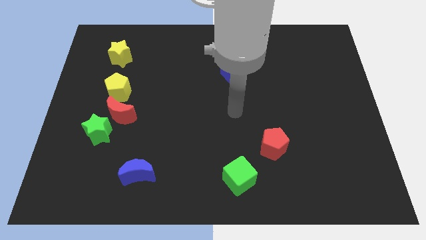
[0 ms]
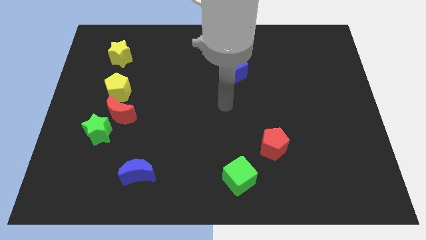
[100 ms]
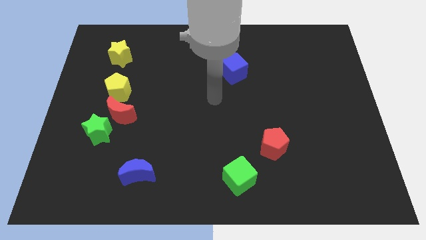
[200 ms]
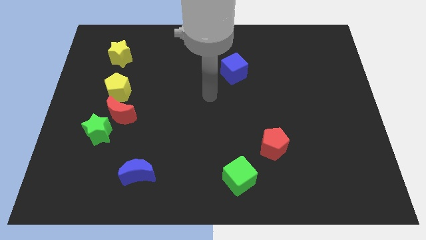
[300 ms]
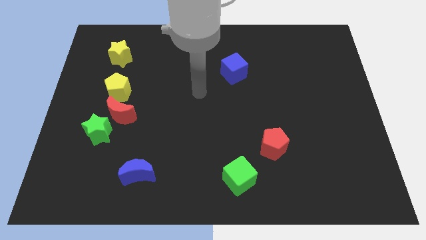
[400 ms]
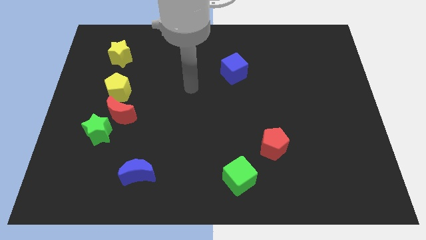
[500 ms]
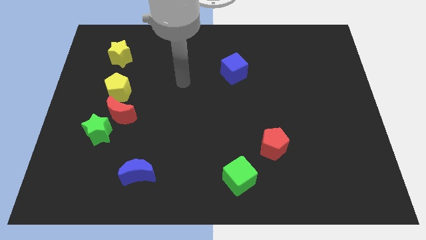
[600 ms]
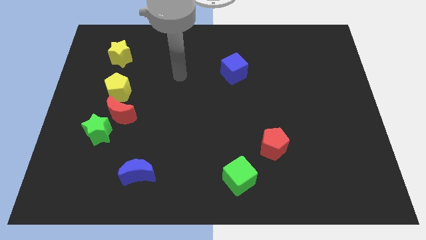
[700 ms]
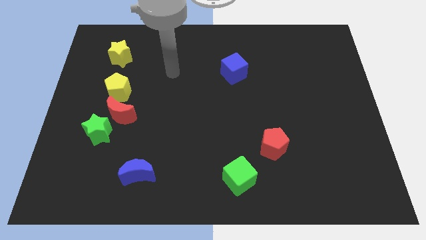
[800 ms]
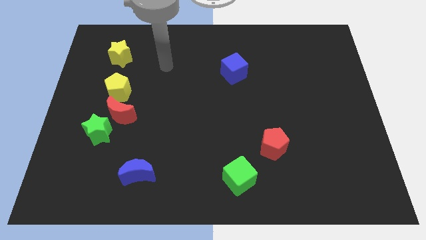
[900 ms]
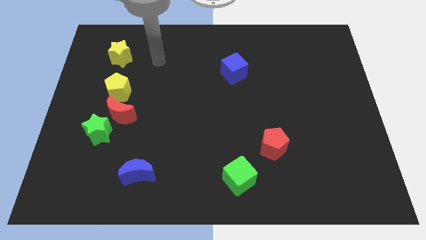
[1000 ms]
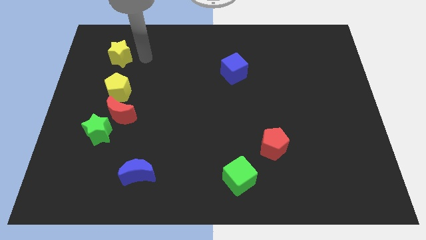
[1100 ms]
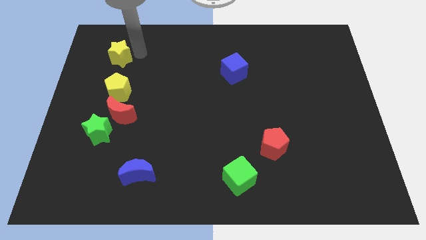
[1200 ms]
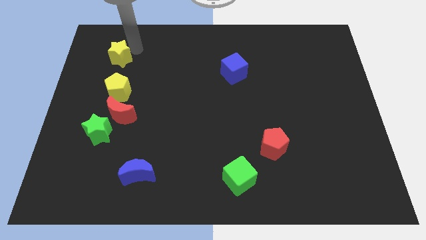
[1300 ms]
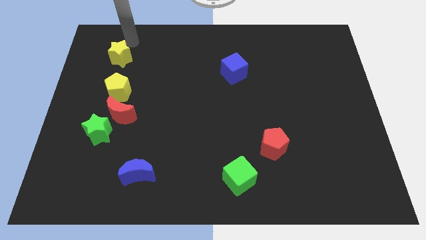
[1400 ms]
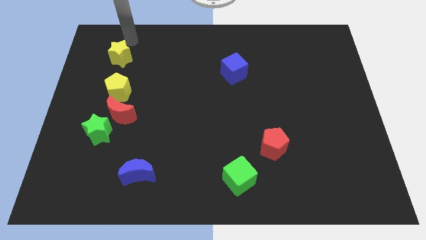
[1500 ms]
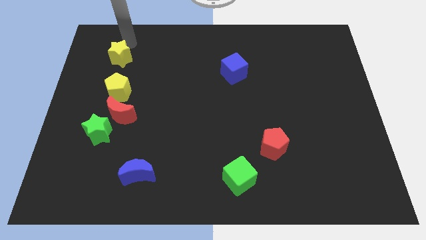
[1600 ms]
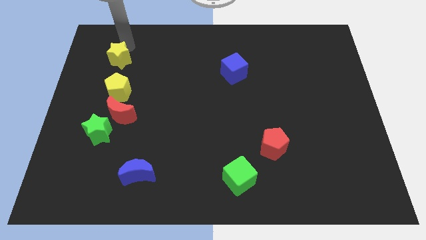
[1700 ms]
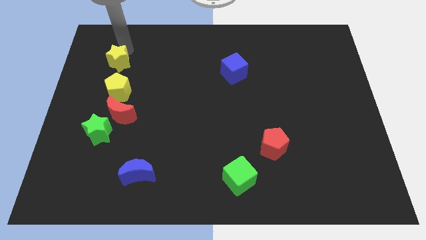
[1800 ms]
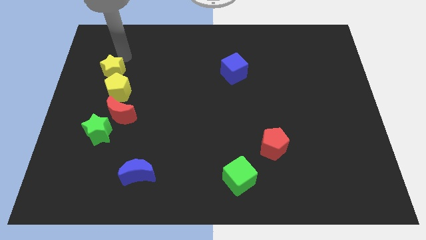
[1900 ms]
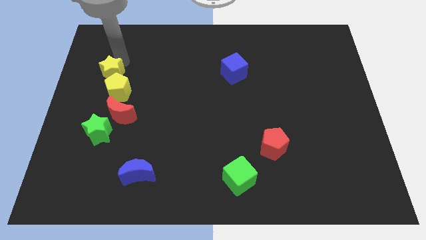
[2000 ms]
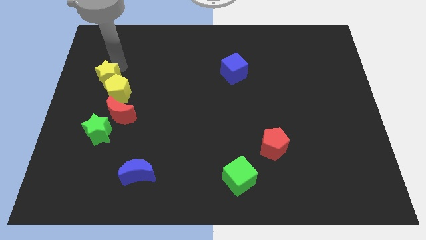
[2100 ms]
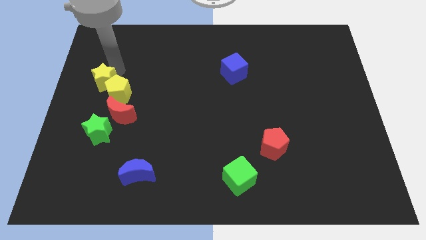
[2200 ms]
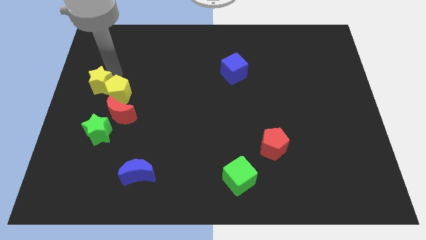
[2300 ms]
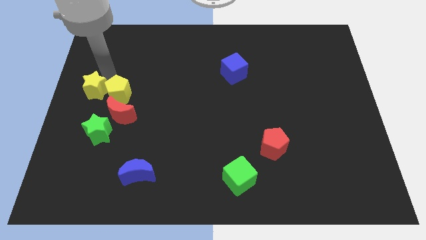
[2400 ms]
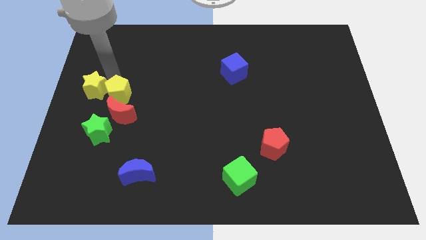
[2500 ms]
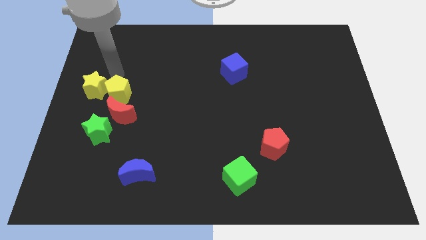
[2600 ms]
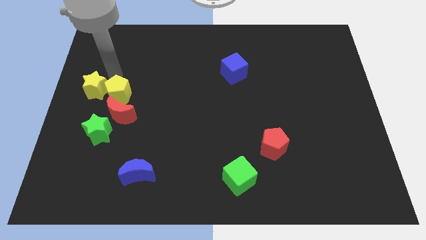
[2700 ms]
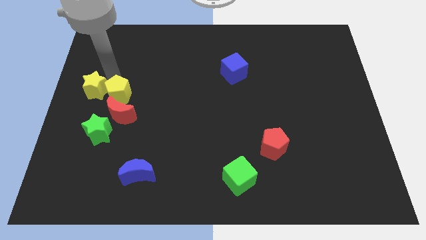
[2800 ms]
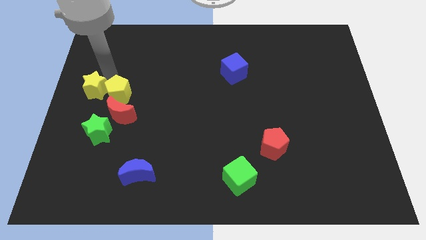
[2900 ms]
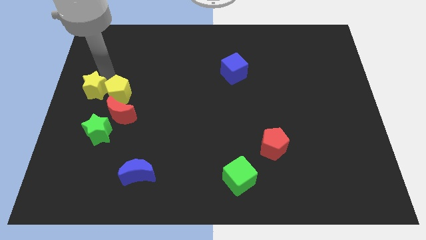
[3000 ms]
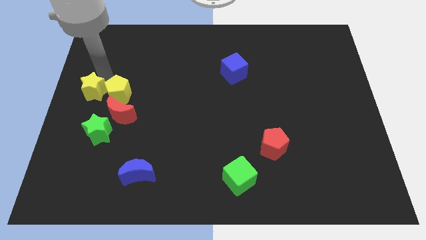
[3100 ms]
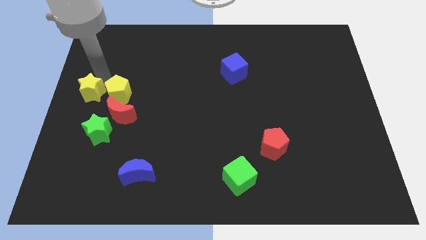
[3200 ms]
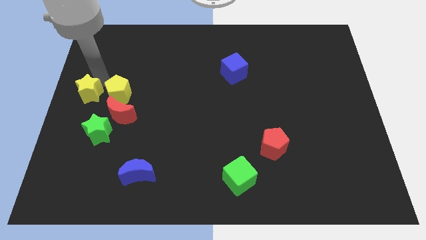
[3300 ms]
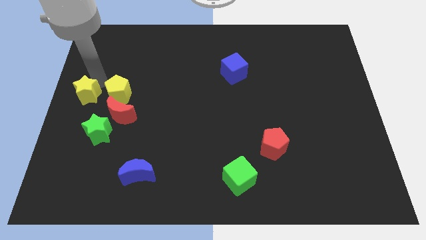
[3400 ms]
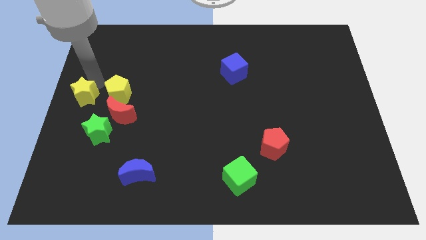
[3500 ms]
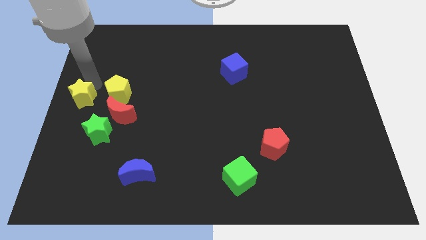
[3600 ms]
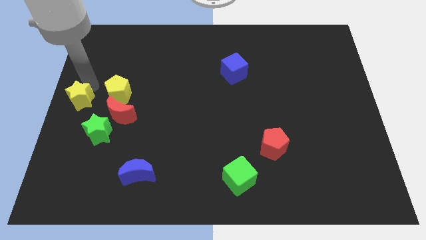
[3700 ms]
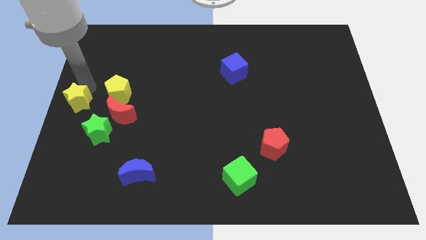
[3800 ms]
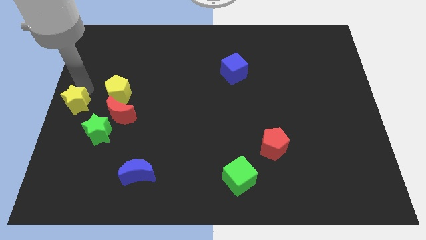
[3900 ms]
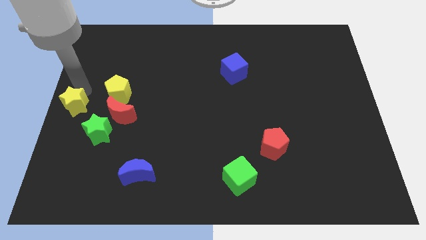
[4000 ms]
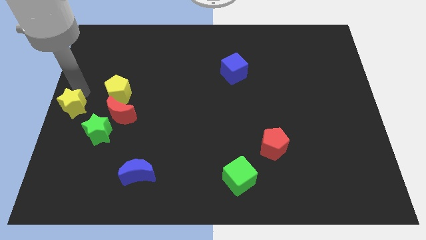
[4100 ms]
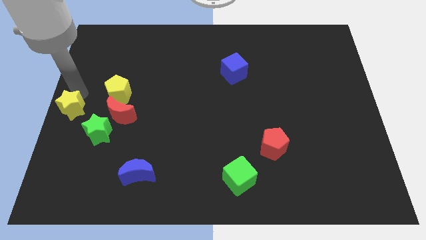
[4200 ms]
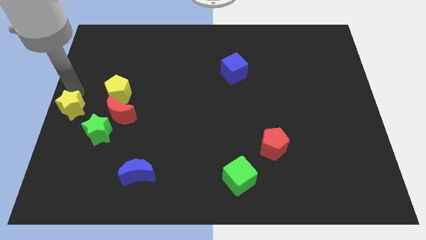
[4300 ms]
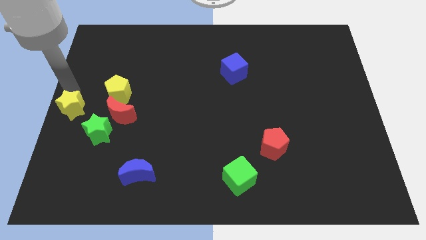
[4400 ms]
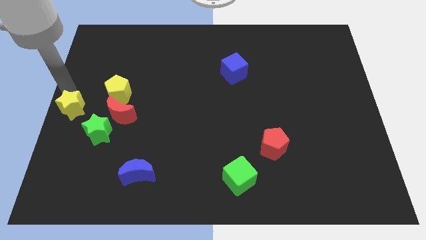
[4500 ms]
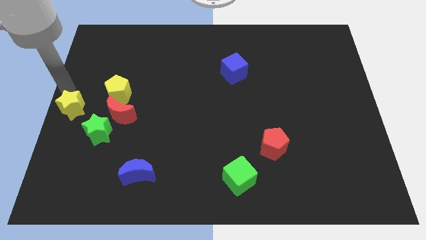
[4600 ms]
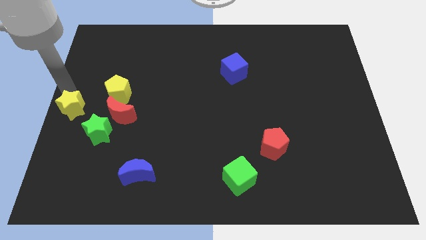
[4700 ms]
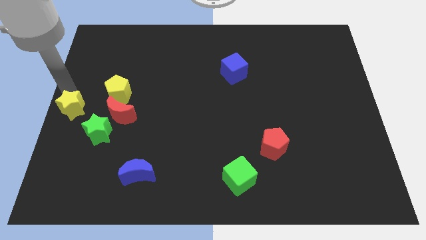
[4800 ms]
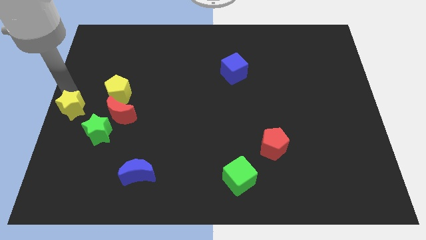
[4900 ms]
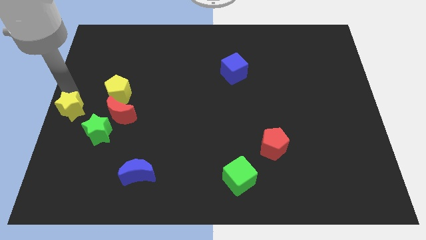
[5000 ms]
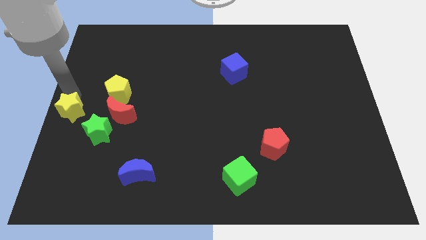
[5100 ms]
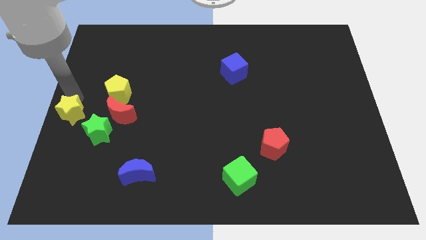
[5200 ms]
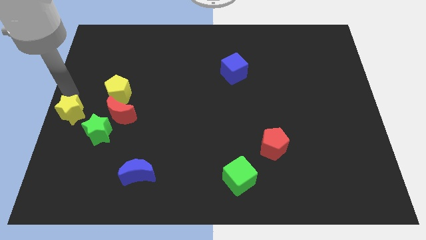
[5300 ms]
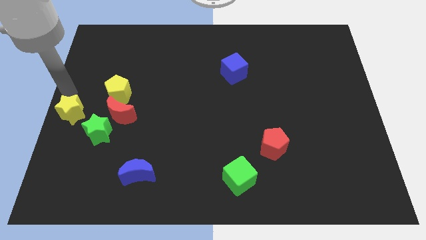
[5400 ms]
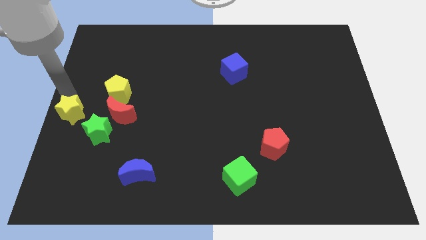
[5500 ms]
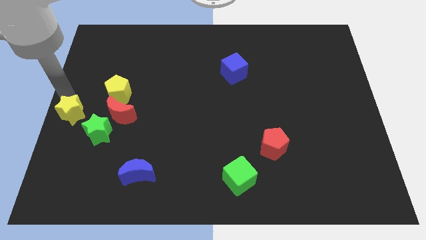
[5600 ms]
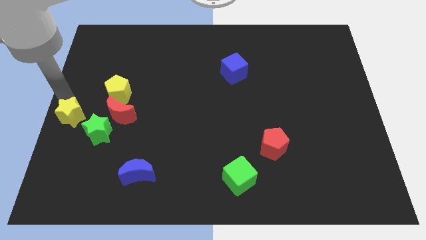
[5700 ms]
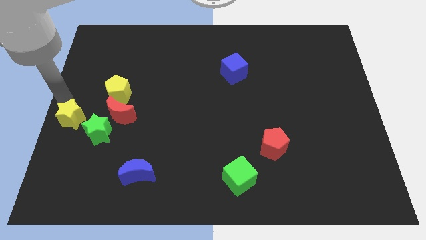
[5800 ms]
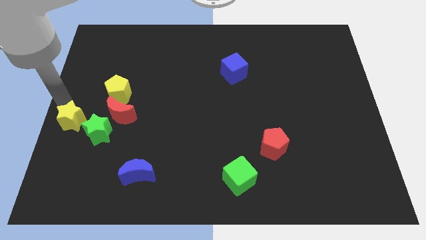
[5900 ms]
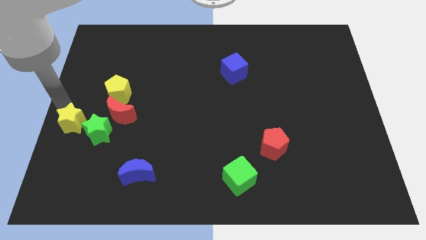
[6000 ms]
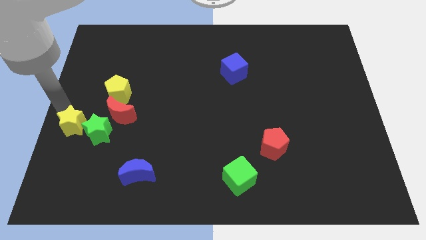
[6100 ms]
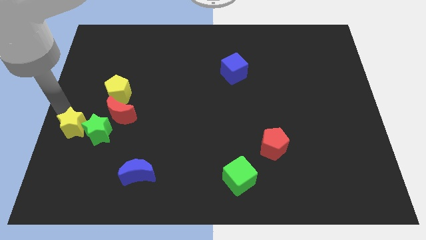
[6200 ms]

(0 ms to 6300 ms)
push the yellow star down

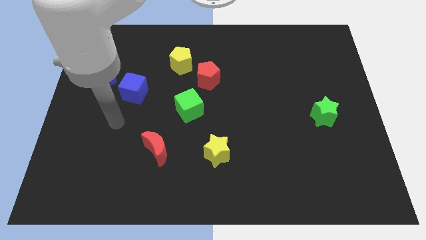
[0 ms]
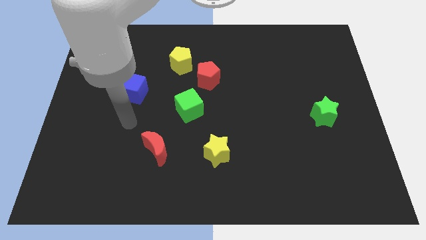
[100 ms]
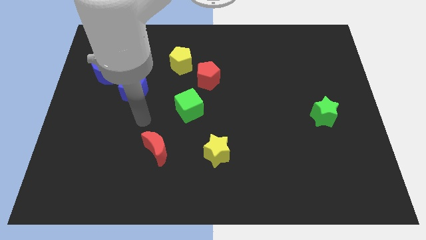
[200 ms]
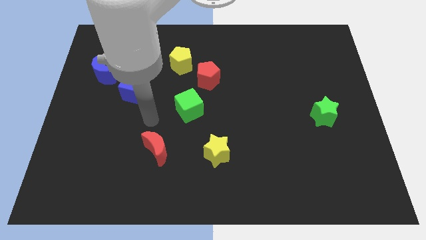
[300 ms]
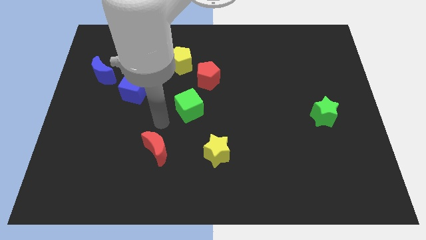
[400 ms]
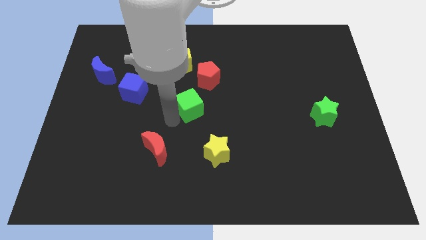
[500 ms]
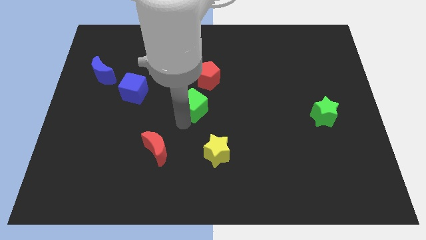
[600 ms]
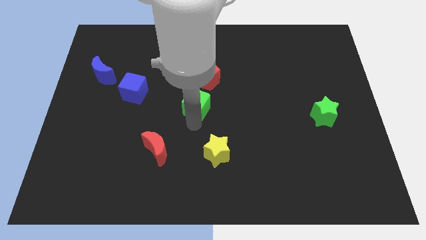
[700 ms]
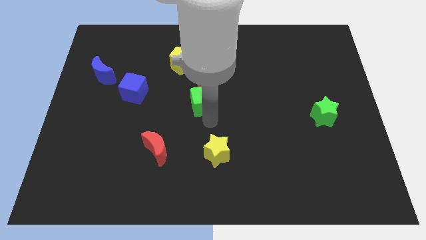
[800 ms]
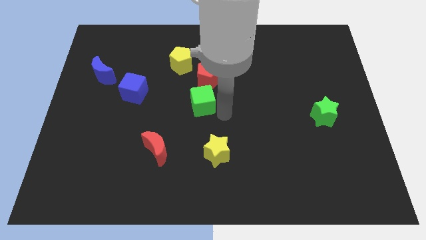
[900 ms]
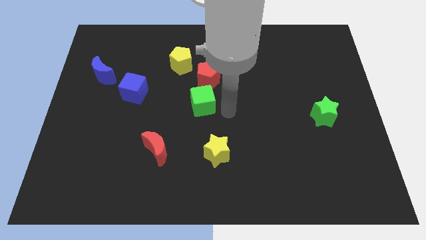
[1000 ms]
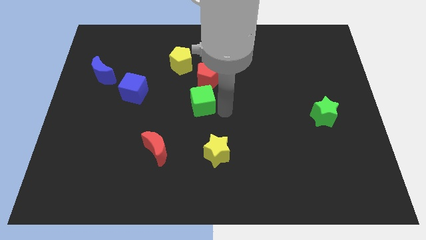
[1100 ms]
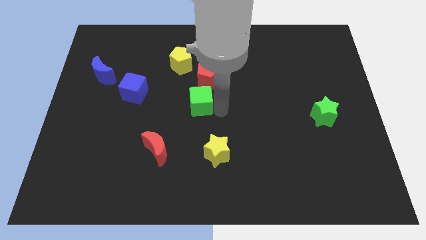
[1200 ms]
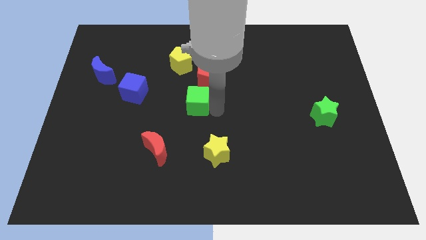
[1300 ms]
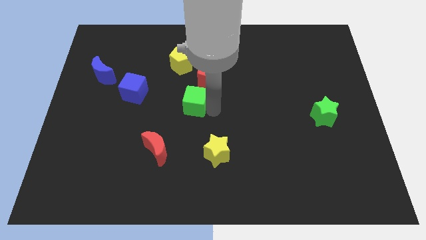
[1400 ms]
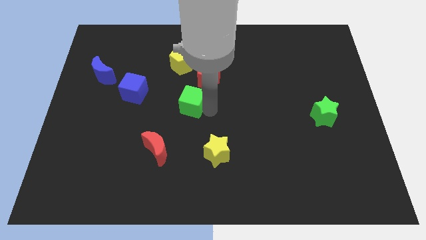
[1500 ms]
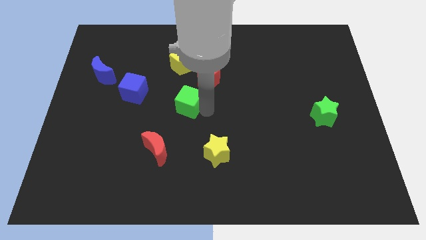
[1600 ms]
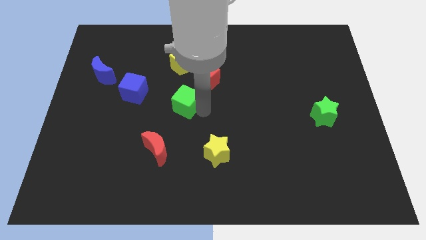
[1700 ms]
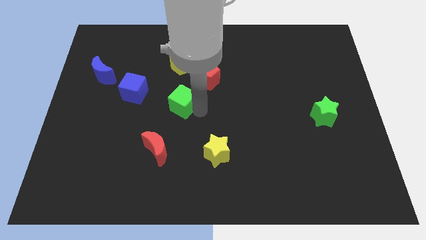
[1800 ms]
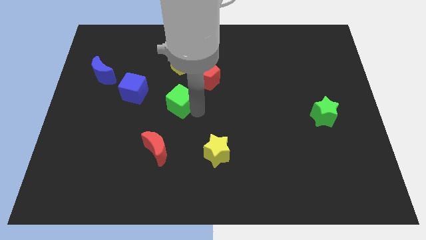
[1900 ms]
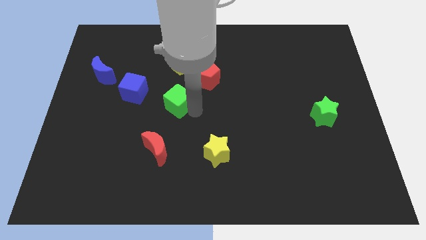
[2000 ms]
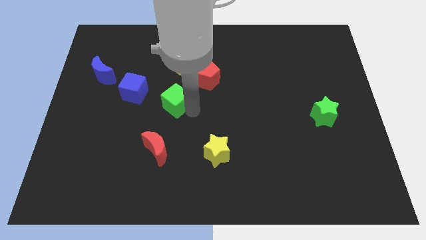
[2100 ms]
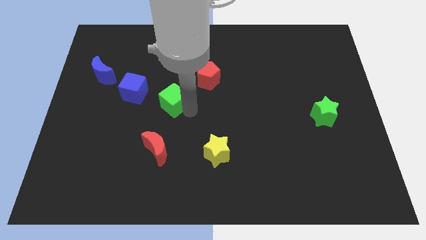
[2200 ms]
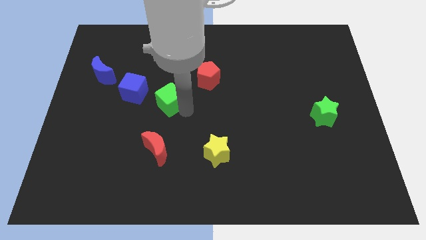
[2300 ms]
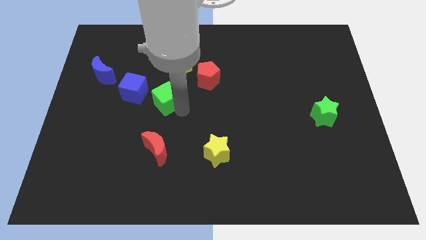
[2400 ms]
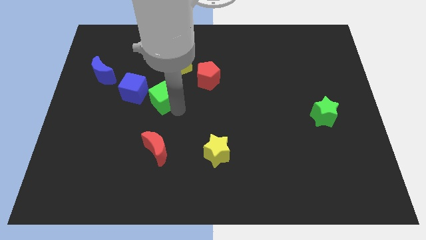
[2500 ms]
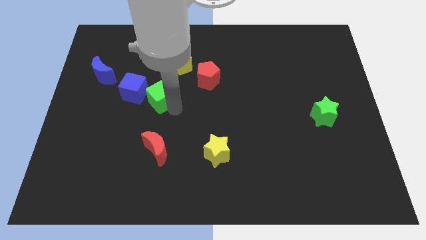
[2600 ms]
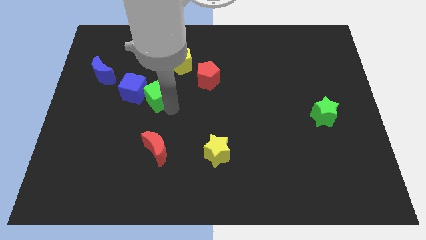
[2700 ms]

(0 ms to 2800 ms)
slightly push the green cube upwards and left
